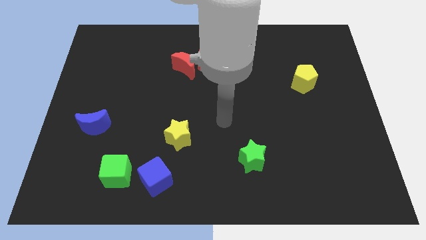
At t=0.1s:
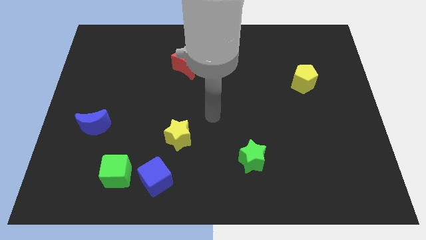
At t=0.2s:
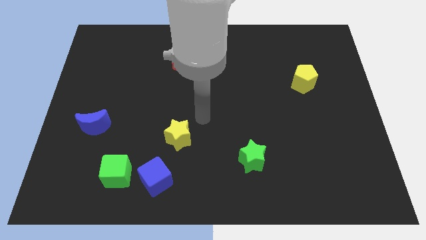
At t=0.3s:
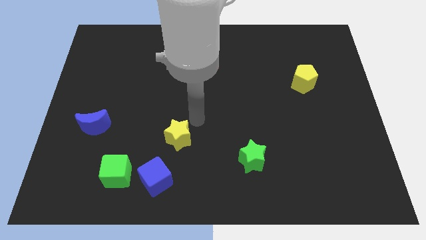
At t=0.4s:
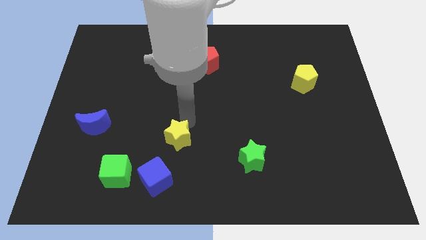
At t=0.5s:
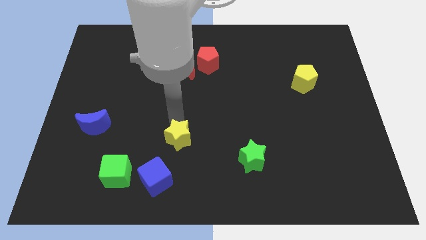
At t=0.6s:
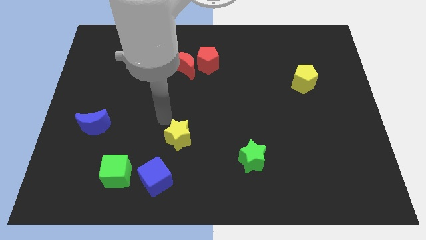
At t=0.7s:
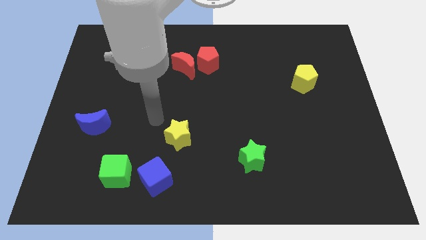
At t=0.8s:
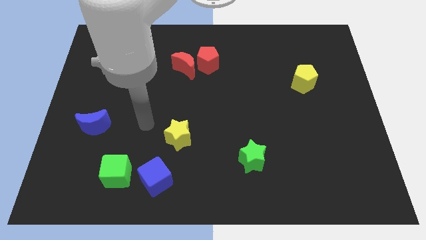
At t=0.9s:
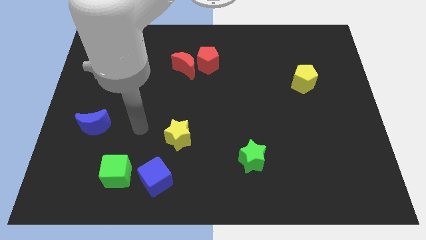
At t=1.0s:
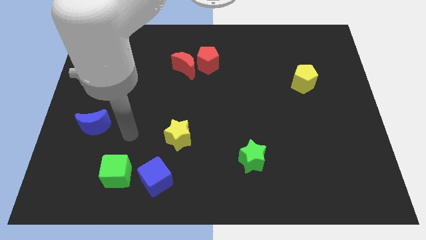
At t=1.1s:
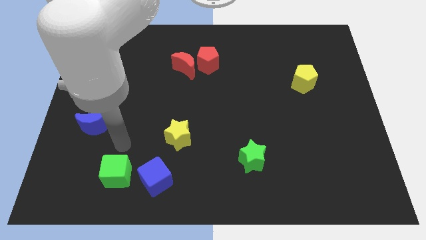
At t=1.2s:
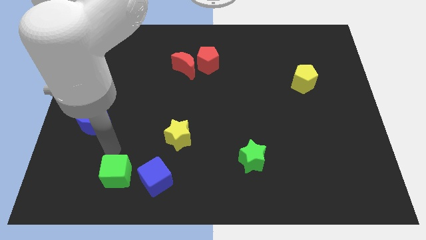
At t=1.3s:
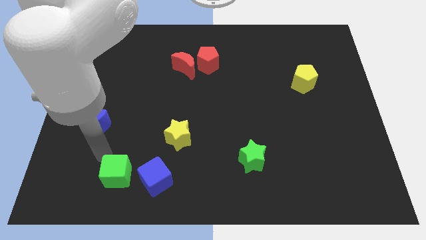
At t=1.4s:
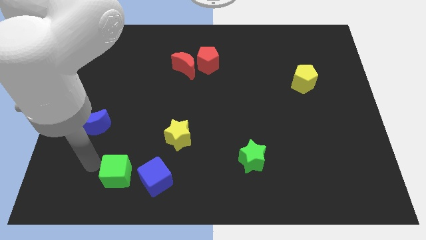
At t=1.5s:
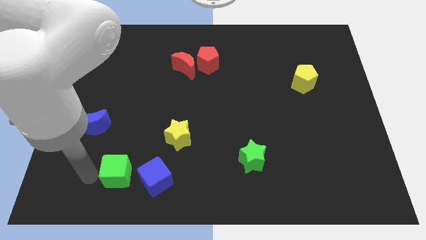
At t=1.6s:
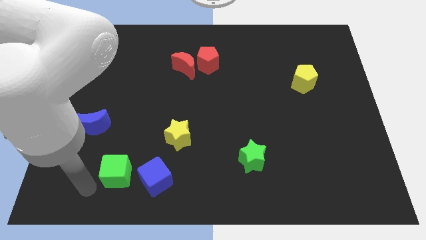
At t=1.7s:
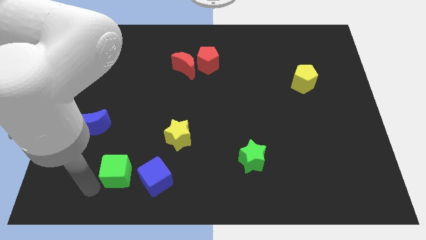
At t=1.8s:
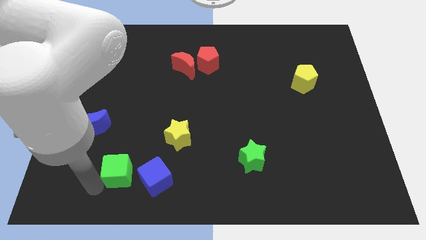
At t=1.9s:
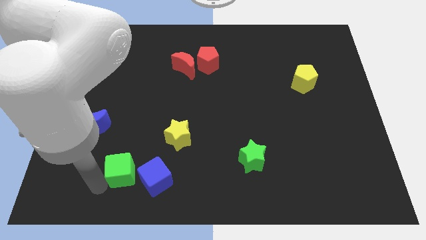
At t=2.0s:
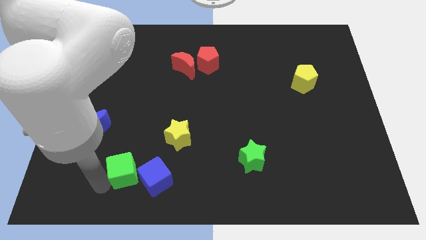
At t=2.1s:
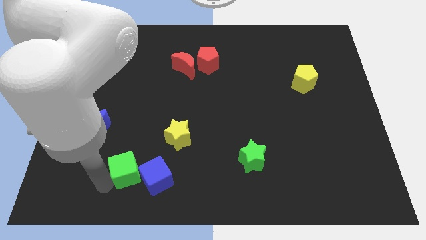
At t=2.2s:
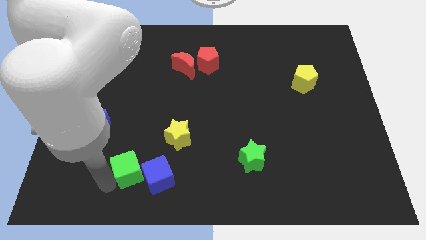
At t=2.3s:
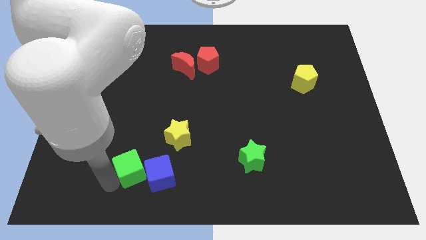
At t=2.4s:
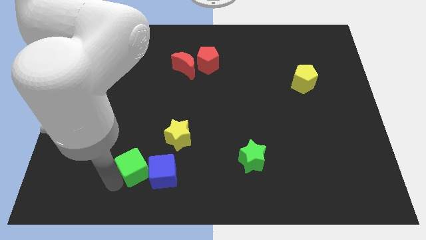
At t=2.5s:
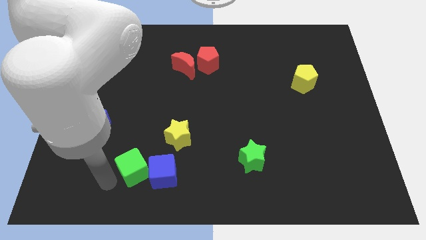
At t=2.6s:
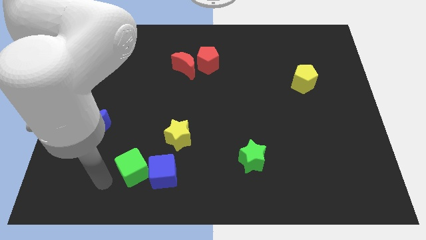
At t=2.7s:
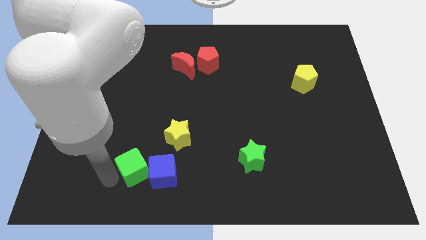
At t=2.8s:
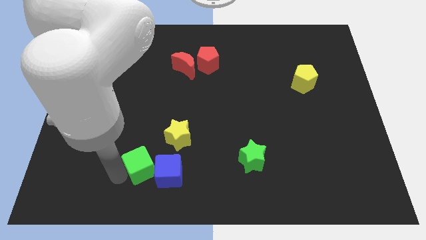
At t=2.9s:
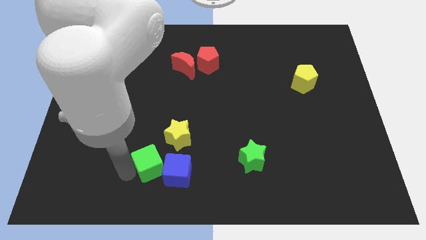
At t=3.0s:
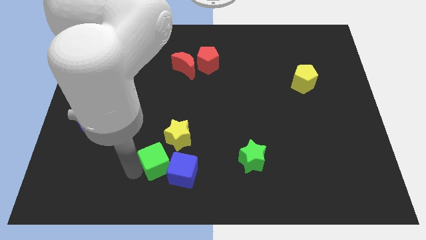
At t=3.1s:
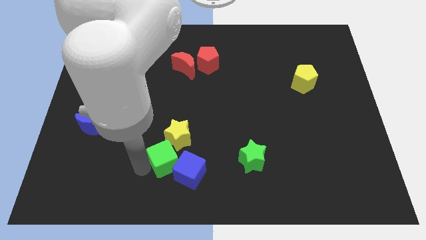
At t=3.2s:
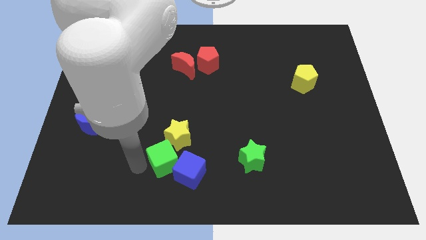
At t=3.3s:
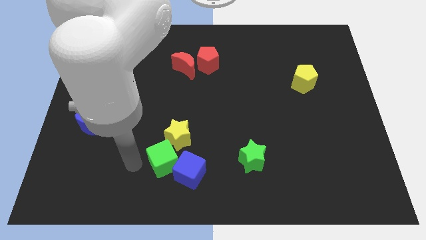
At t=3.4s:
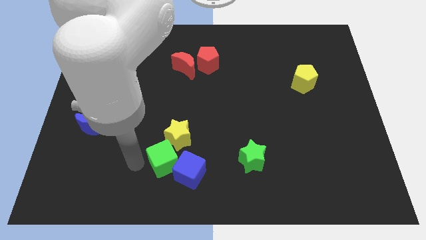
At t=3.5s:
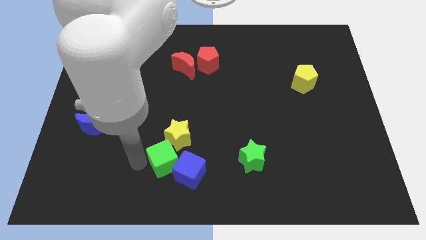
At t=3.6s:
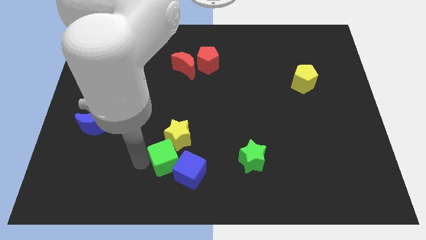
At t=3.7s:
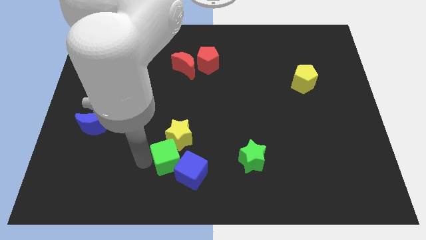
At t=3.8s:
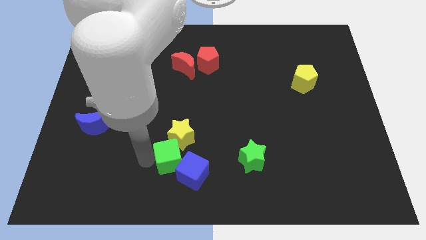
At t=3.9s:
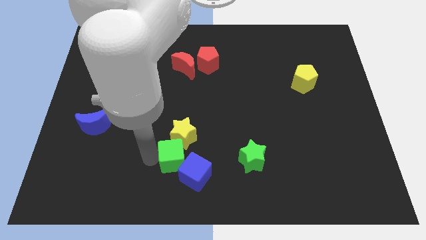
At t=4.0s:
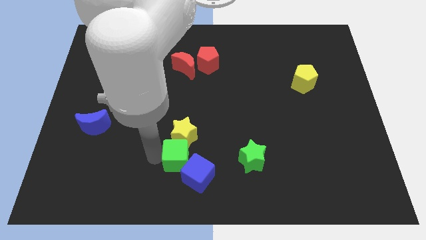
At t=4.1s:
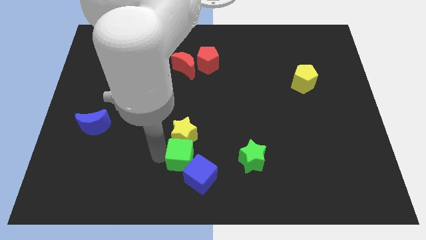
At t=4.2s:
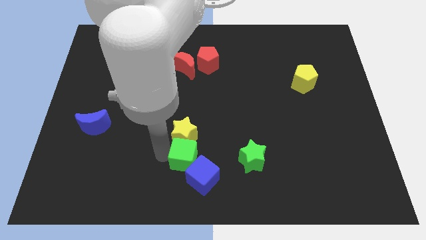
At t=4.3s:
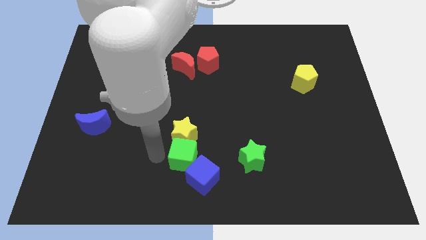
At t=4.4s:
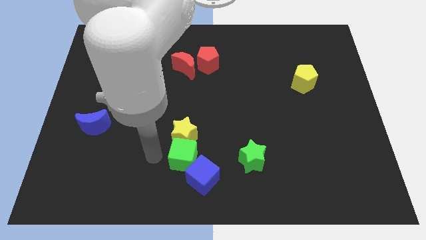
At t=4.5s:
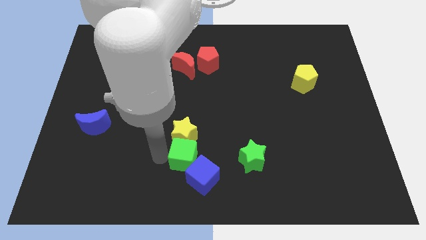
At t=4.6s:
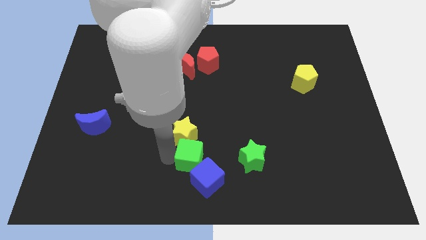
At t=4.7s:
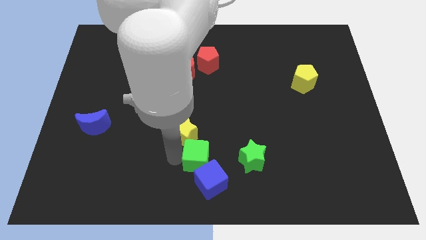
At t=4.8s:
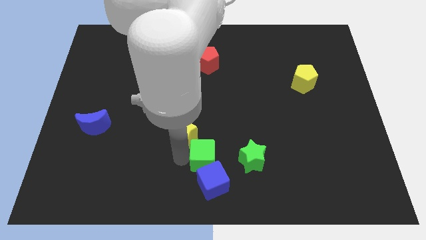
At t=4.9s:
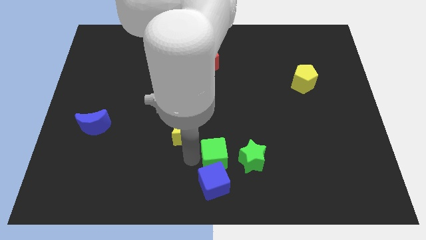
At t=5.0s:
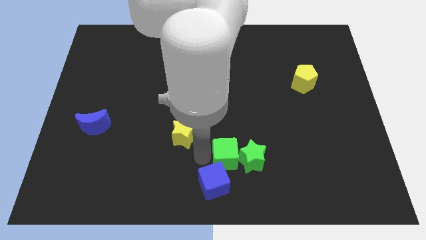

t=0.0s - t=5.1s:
move the green cube next to the green star

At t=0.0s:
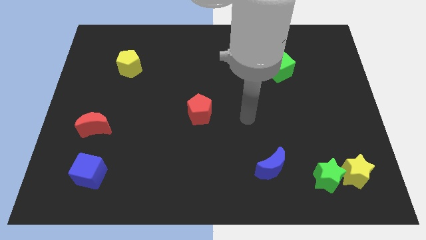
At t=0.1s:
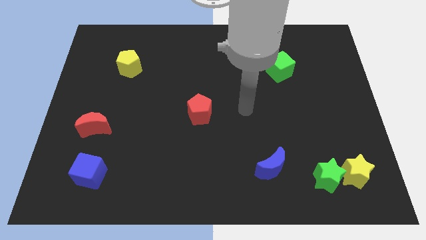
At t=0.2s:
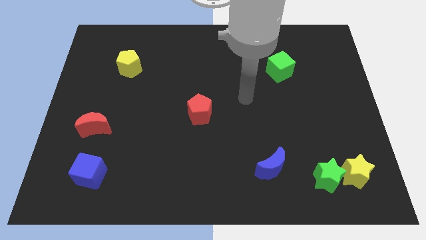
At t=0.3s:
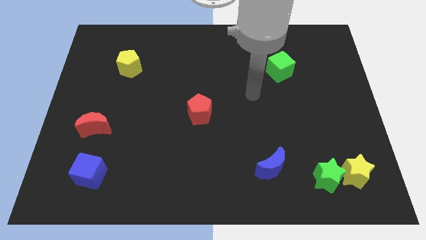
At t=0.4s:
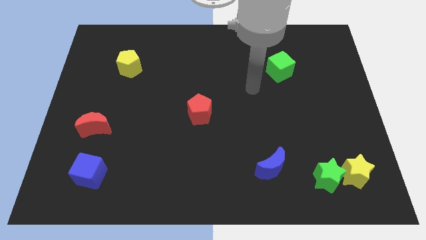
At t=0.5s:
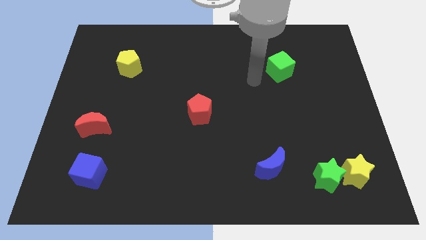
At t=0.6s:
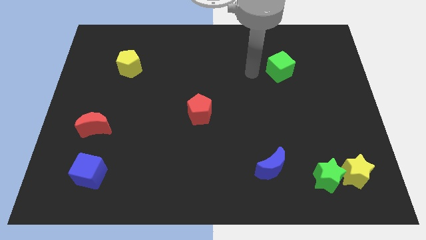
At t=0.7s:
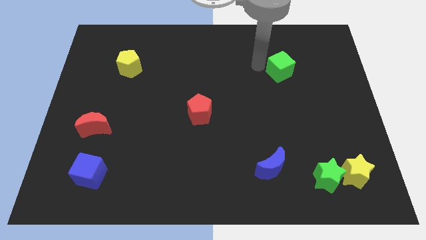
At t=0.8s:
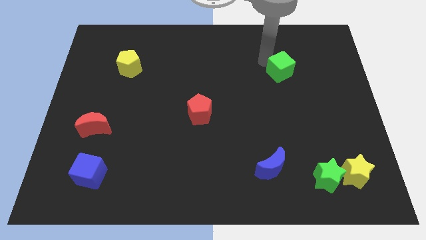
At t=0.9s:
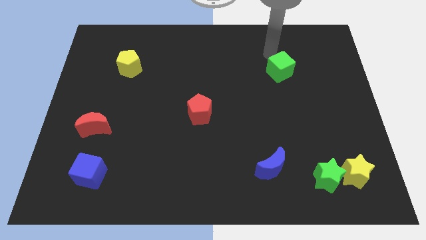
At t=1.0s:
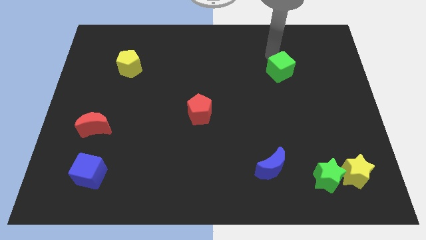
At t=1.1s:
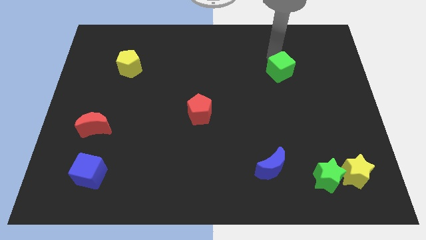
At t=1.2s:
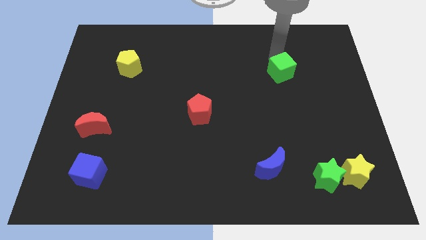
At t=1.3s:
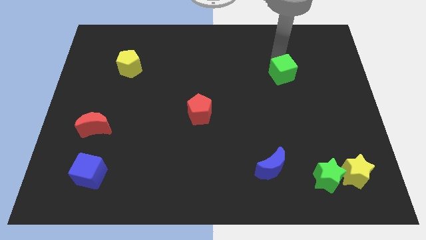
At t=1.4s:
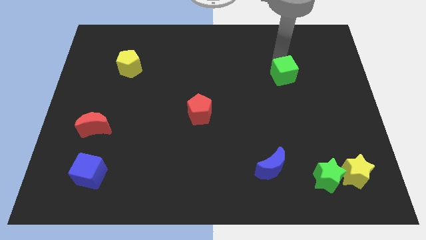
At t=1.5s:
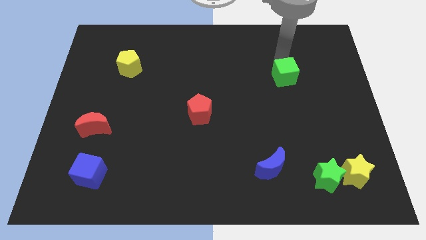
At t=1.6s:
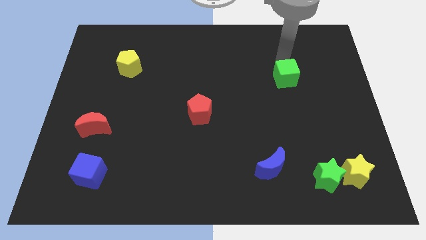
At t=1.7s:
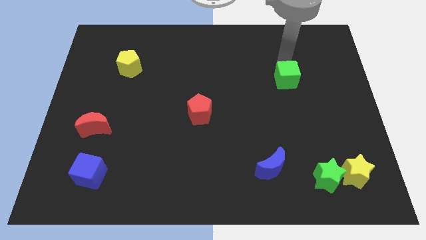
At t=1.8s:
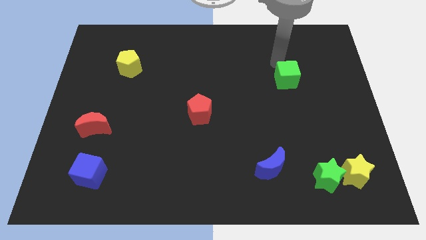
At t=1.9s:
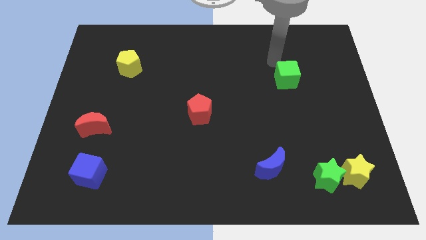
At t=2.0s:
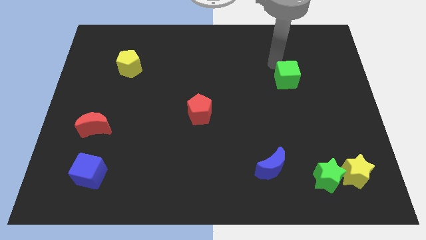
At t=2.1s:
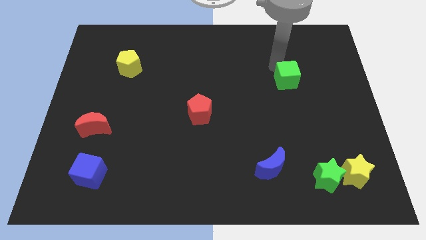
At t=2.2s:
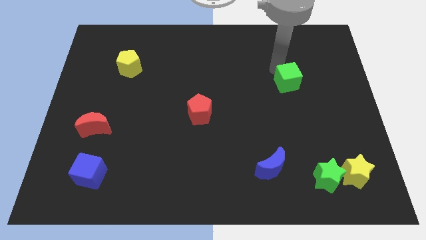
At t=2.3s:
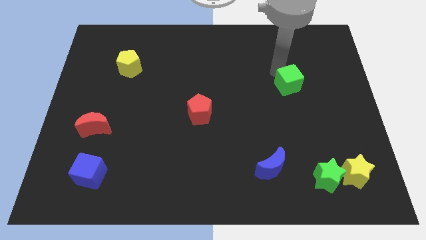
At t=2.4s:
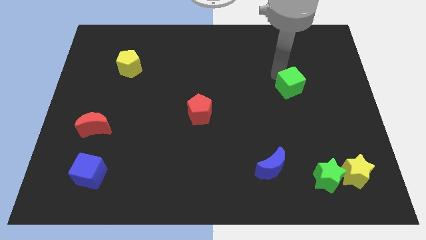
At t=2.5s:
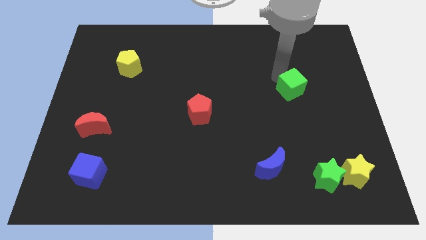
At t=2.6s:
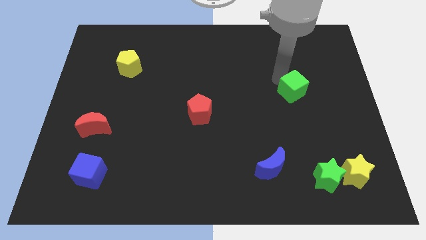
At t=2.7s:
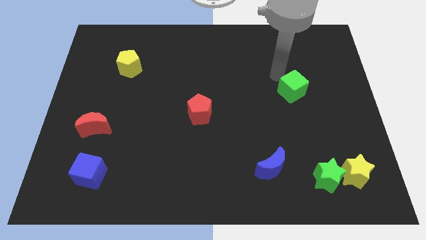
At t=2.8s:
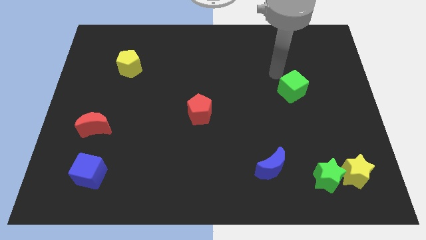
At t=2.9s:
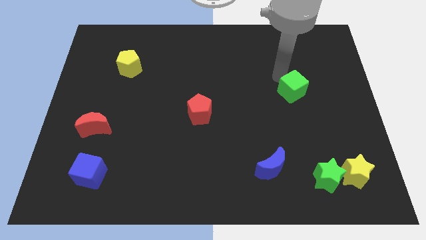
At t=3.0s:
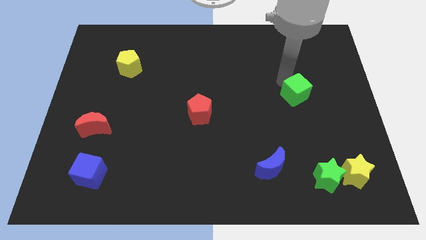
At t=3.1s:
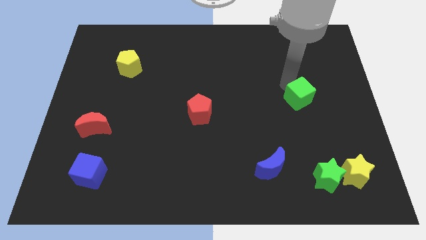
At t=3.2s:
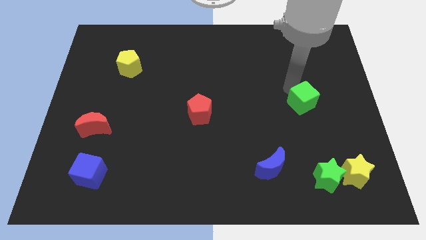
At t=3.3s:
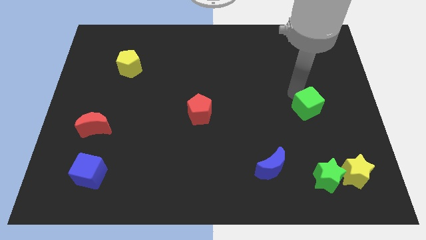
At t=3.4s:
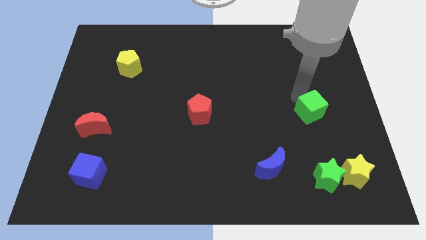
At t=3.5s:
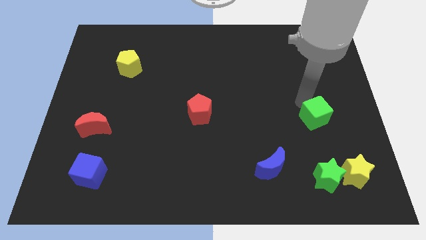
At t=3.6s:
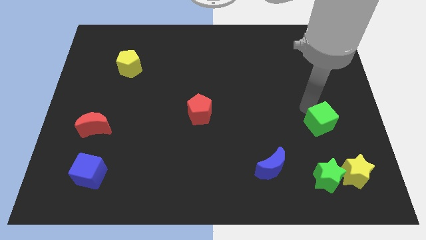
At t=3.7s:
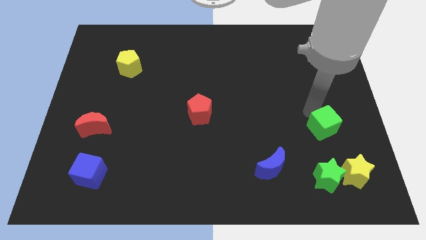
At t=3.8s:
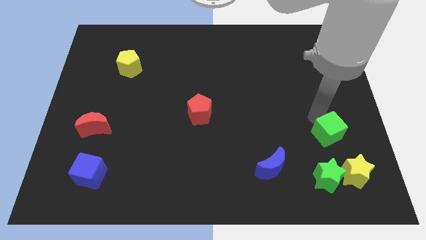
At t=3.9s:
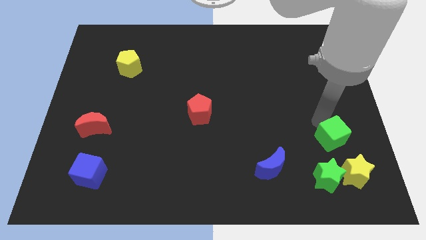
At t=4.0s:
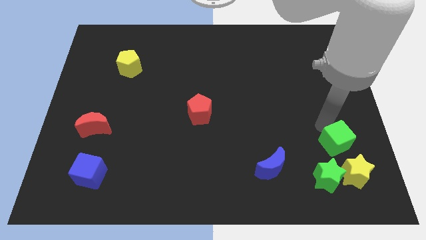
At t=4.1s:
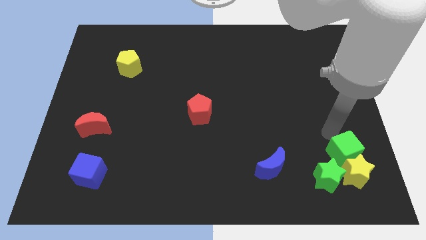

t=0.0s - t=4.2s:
put the green cube to the yellow star
